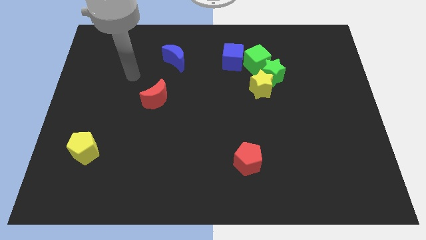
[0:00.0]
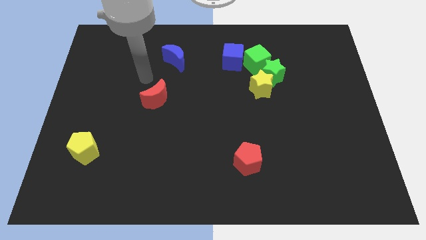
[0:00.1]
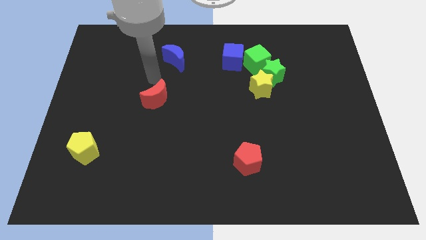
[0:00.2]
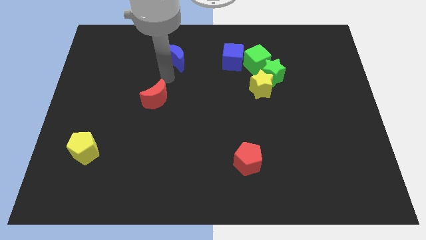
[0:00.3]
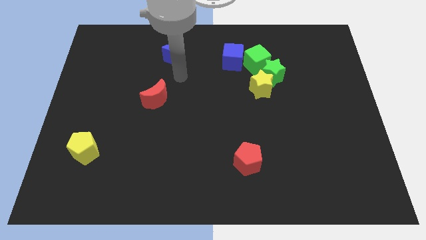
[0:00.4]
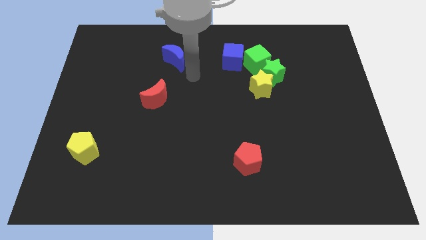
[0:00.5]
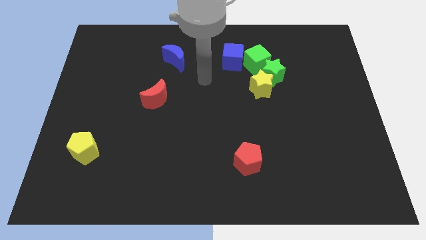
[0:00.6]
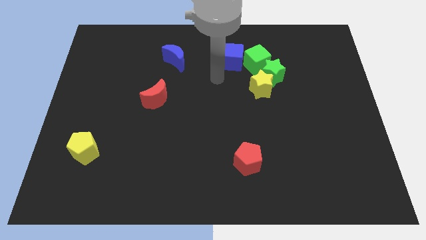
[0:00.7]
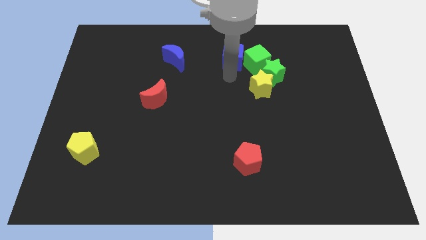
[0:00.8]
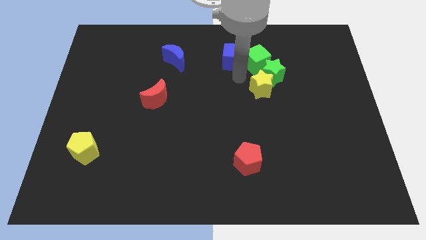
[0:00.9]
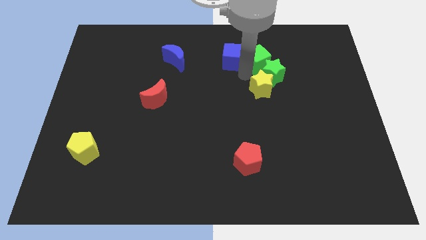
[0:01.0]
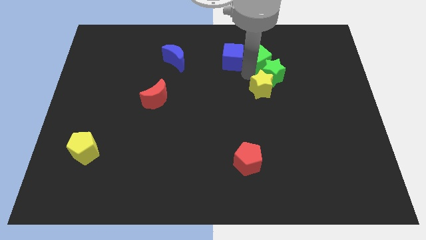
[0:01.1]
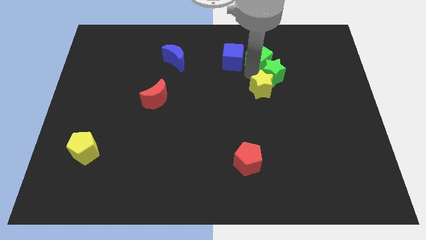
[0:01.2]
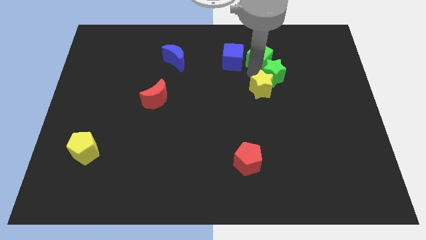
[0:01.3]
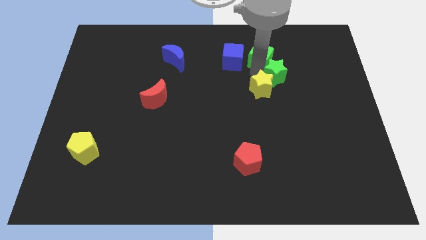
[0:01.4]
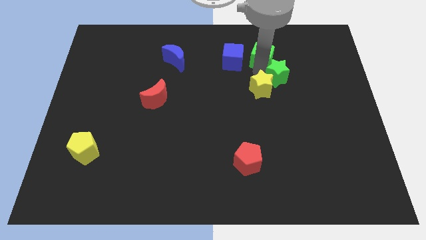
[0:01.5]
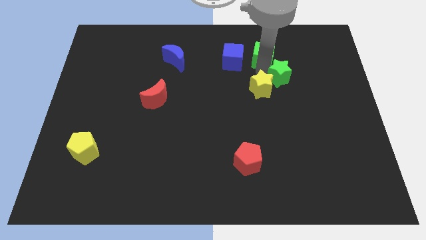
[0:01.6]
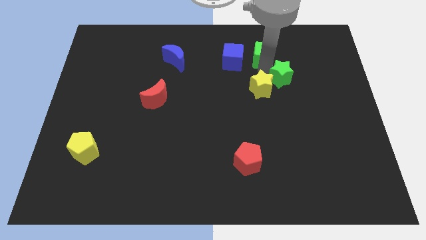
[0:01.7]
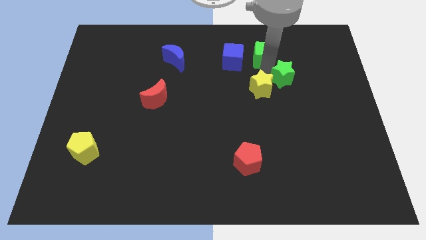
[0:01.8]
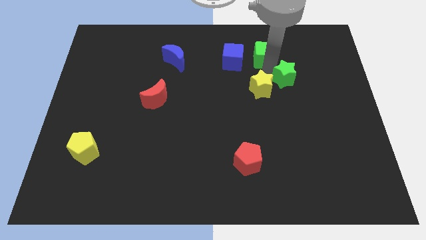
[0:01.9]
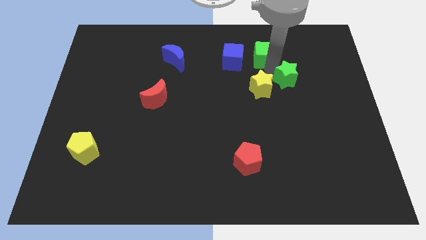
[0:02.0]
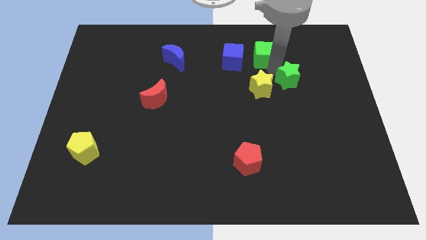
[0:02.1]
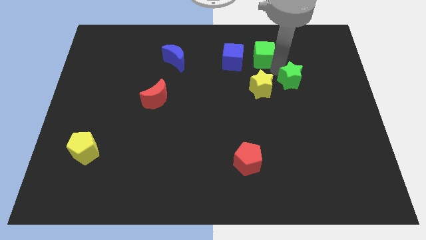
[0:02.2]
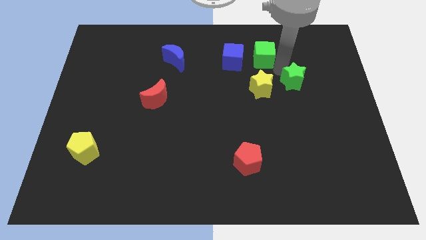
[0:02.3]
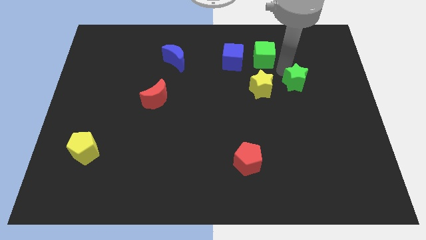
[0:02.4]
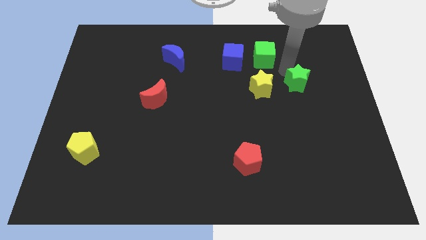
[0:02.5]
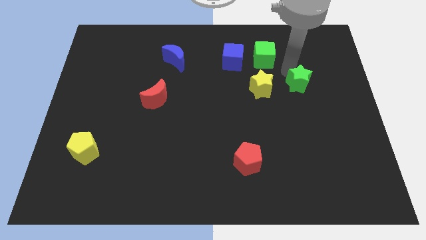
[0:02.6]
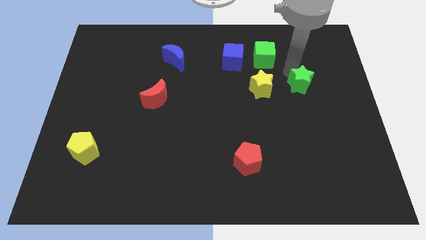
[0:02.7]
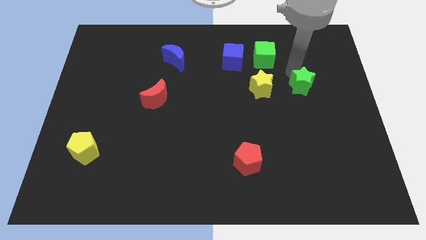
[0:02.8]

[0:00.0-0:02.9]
pull the green star apart from the yellow star and green cube

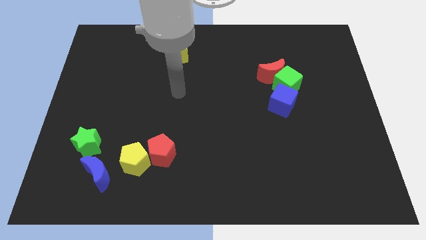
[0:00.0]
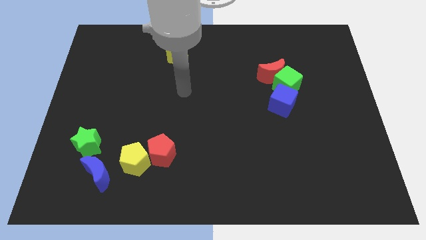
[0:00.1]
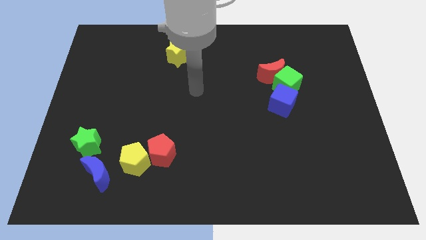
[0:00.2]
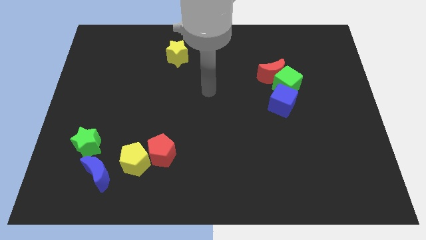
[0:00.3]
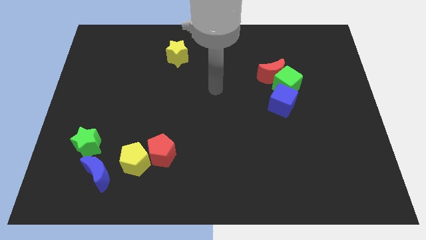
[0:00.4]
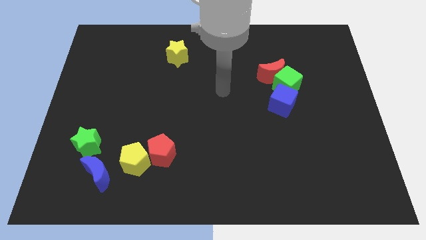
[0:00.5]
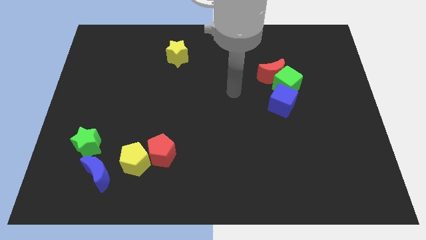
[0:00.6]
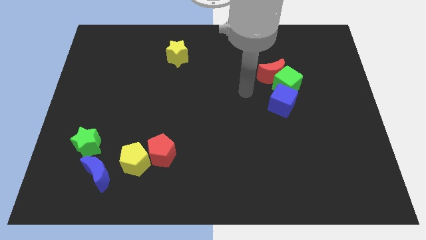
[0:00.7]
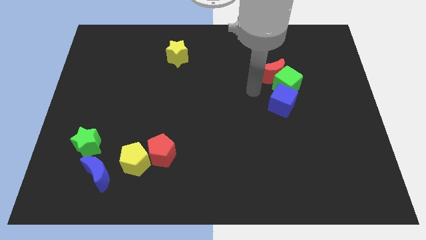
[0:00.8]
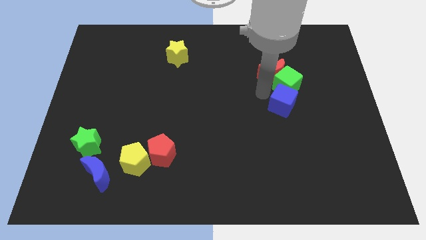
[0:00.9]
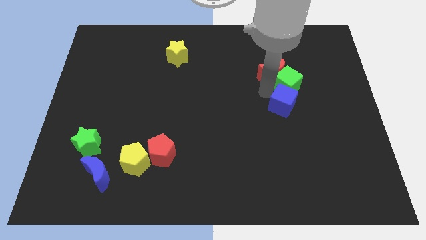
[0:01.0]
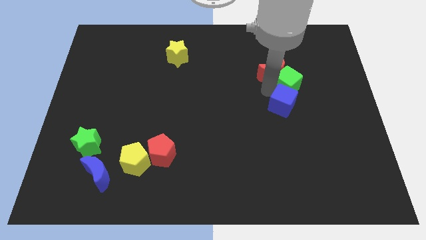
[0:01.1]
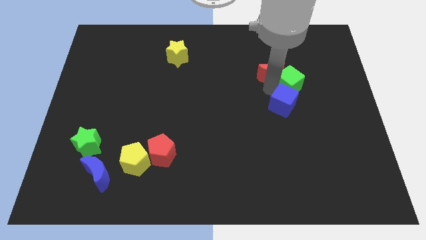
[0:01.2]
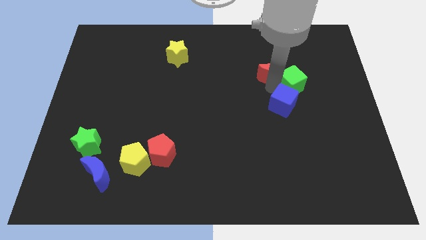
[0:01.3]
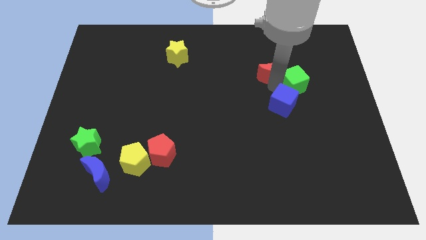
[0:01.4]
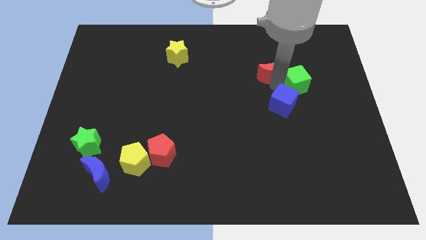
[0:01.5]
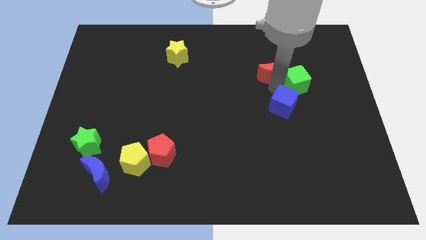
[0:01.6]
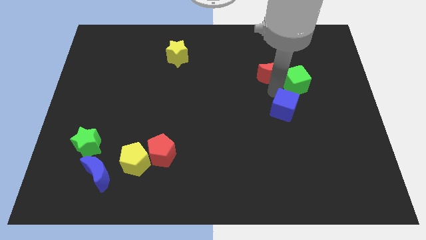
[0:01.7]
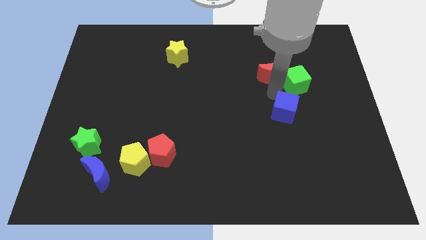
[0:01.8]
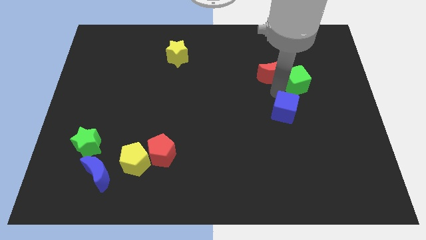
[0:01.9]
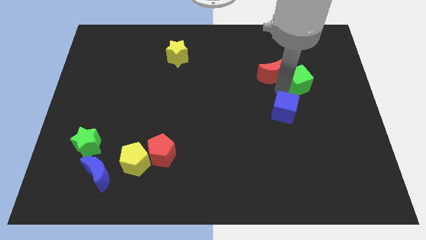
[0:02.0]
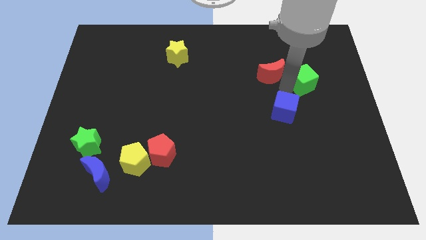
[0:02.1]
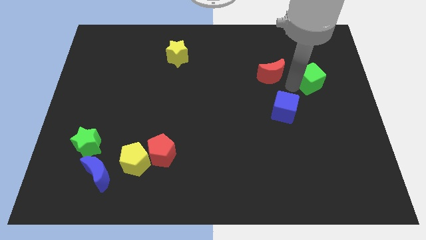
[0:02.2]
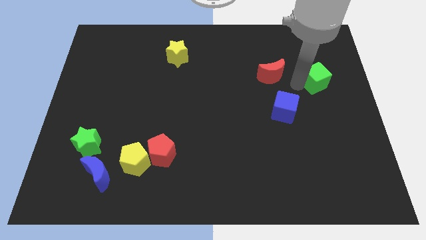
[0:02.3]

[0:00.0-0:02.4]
move the green cube away from the red moon and blue cube

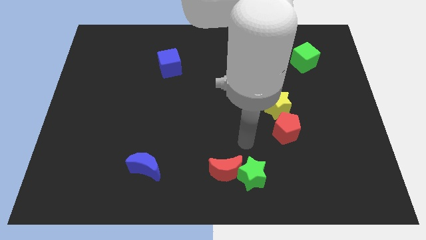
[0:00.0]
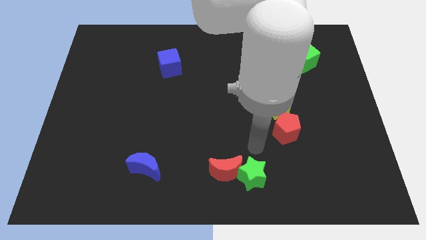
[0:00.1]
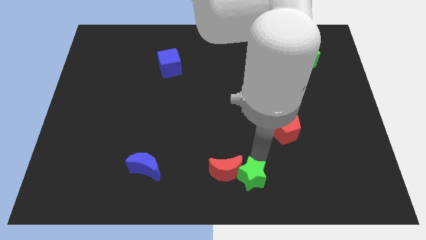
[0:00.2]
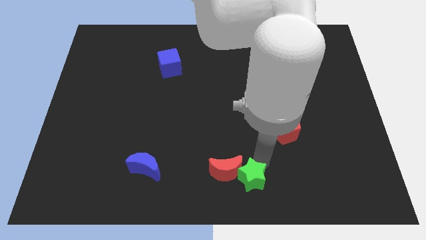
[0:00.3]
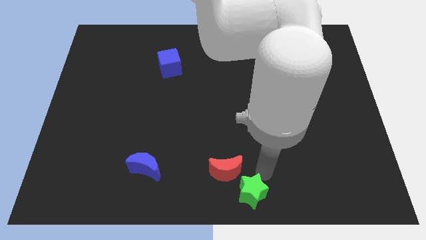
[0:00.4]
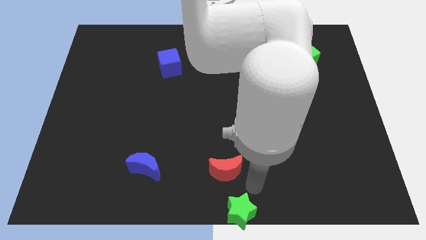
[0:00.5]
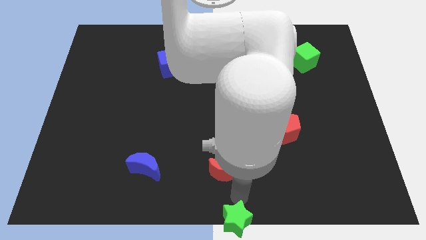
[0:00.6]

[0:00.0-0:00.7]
separate the red moon from the green star

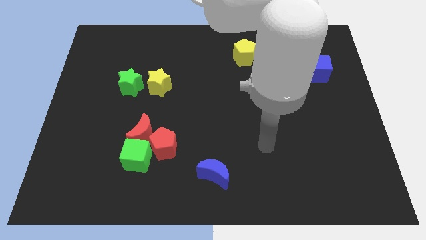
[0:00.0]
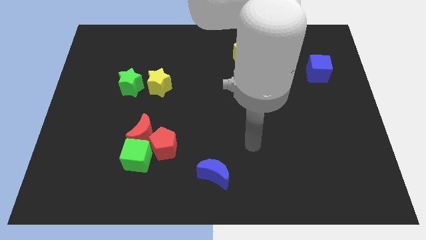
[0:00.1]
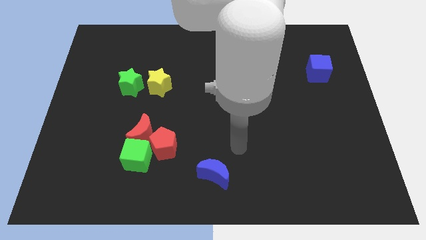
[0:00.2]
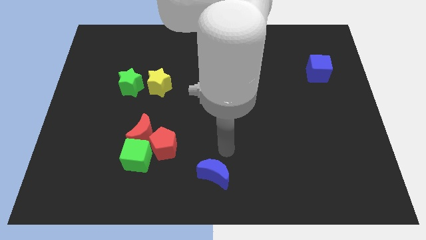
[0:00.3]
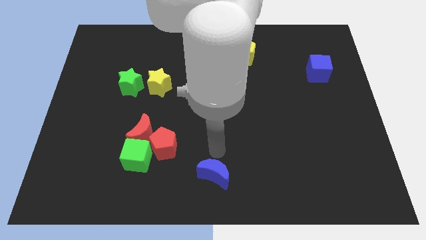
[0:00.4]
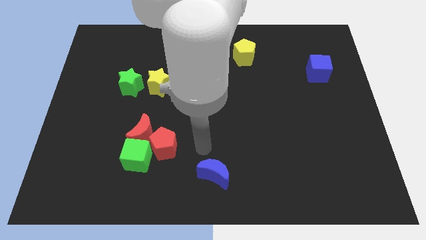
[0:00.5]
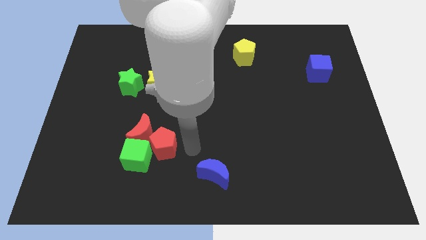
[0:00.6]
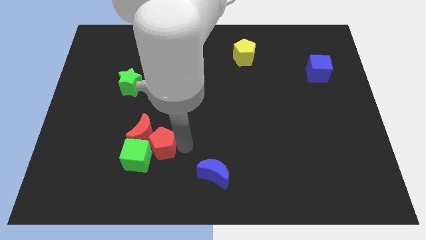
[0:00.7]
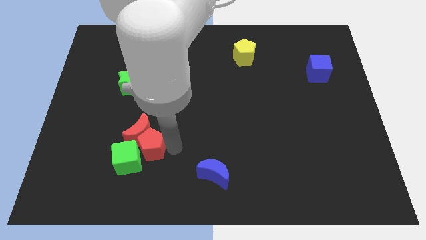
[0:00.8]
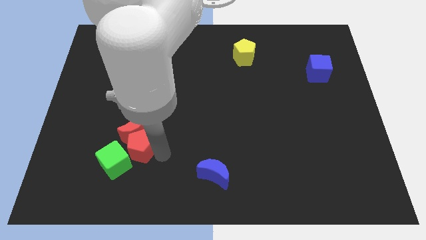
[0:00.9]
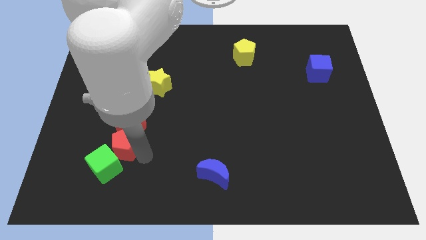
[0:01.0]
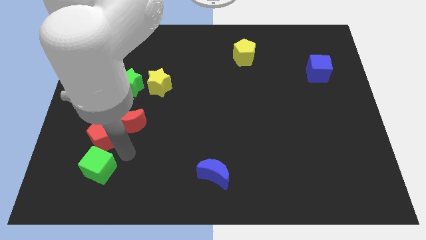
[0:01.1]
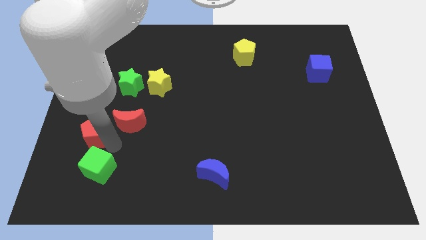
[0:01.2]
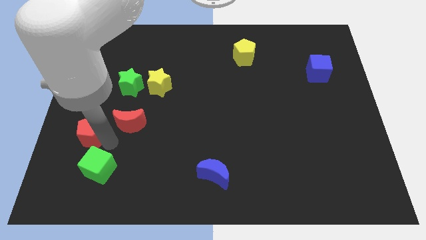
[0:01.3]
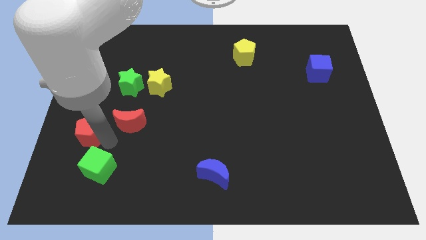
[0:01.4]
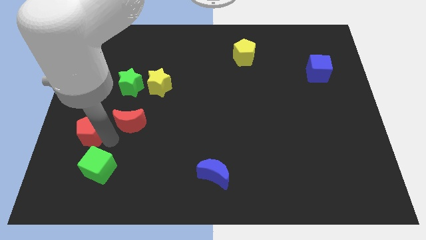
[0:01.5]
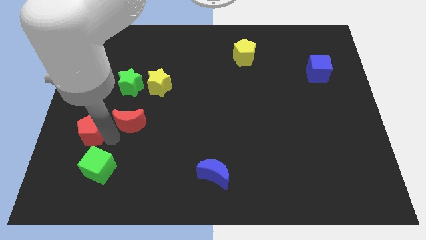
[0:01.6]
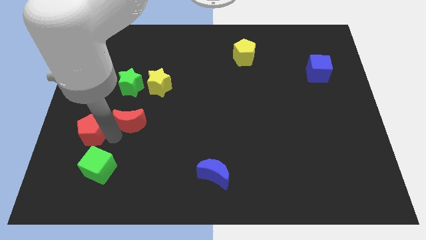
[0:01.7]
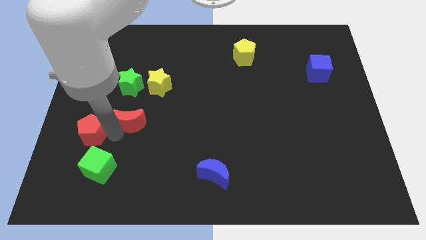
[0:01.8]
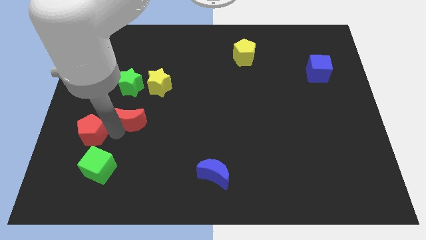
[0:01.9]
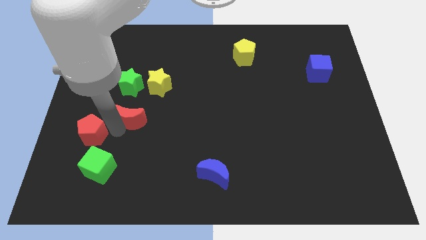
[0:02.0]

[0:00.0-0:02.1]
separate the red moon from the red pentagon and green cube

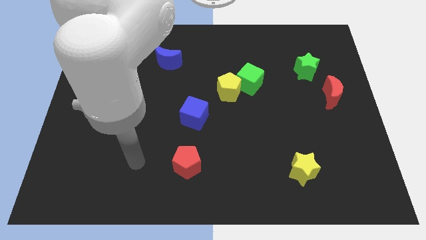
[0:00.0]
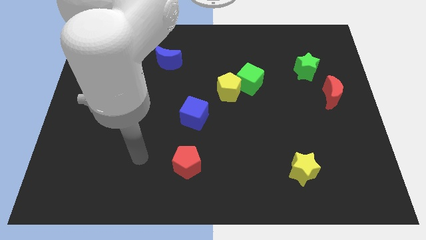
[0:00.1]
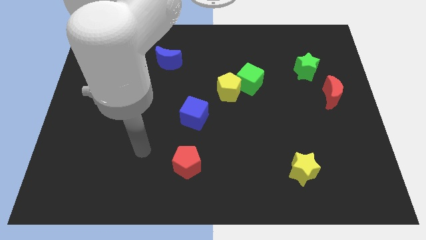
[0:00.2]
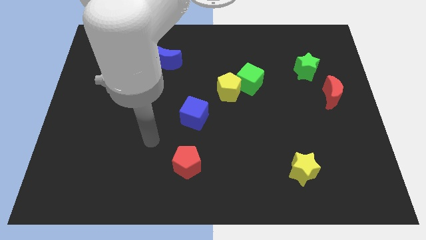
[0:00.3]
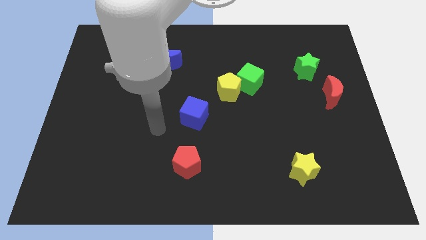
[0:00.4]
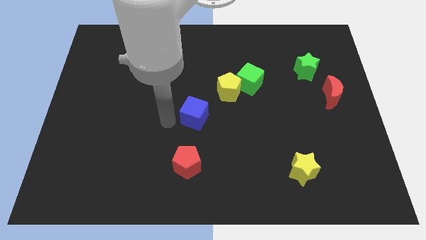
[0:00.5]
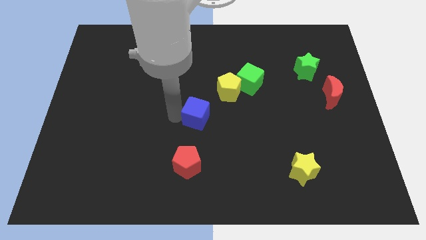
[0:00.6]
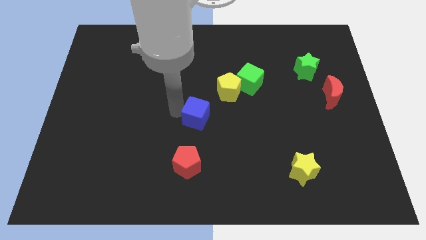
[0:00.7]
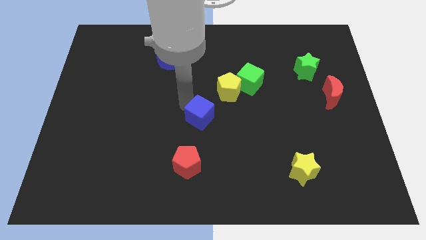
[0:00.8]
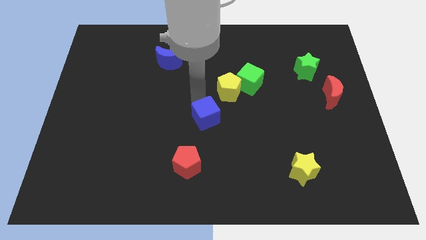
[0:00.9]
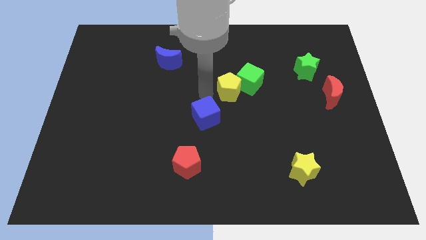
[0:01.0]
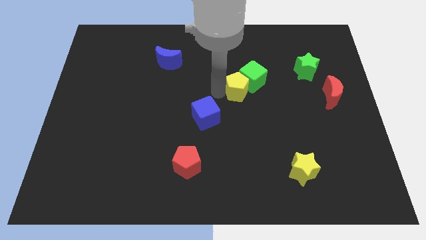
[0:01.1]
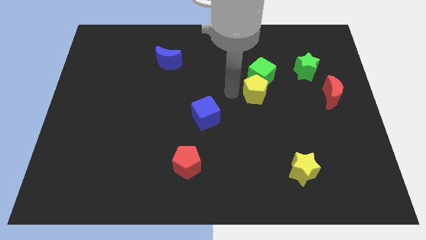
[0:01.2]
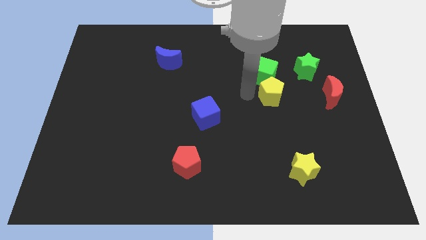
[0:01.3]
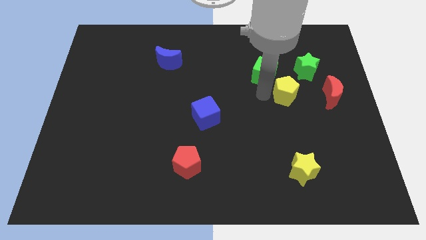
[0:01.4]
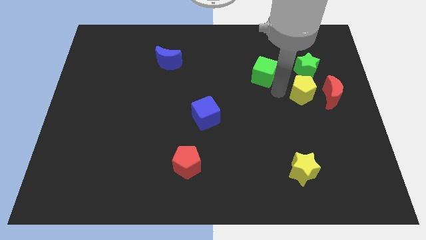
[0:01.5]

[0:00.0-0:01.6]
separate the green cube from the yellow pentagon
